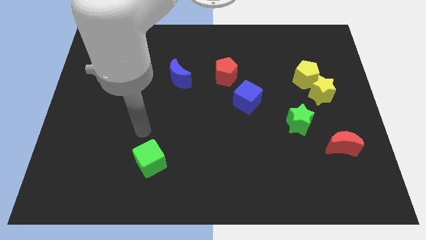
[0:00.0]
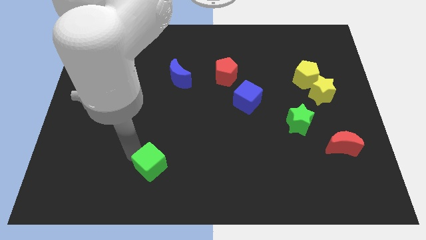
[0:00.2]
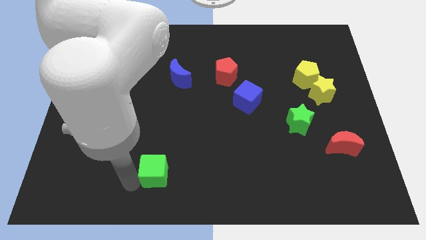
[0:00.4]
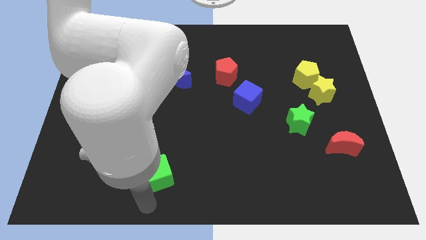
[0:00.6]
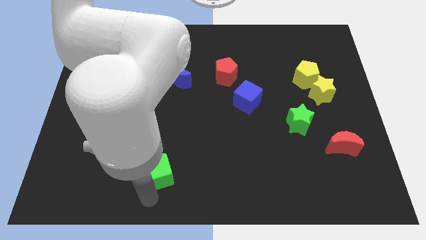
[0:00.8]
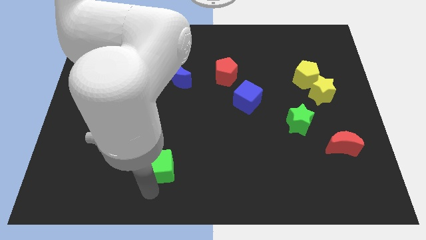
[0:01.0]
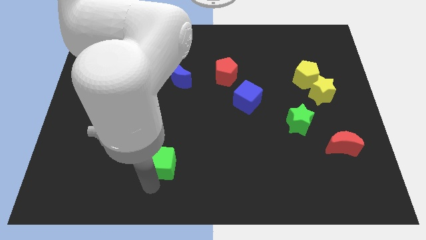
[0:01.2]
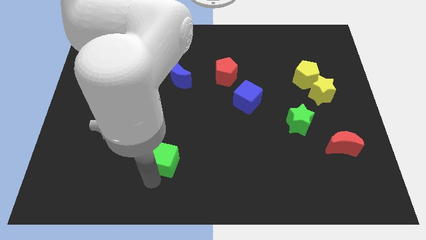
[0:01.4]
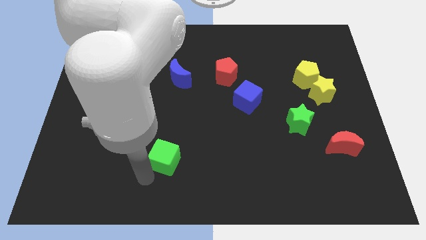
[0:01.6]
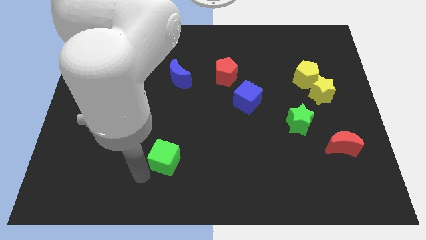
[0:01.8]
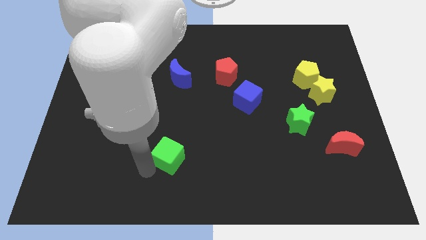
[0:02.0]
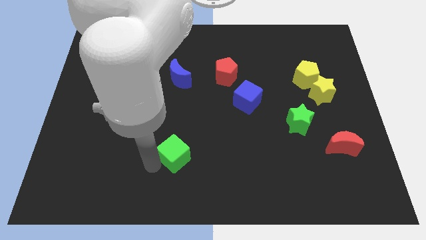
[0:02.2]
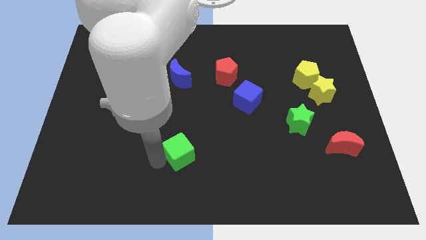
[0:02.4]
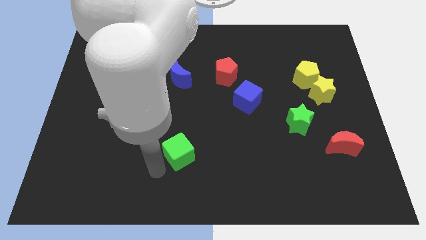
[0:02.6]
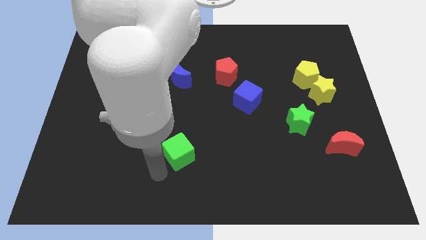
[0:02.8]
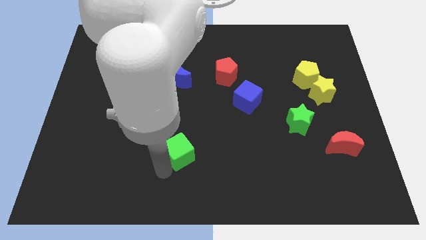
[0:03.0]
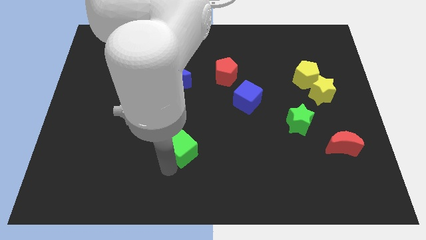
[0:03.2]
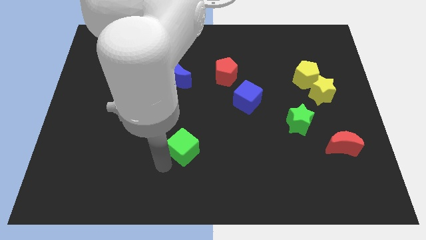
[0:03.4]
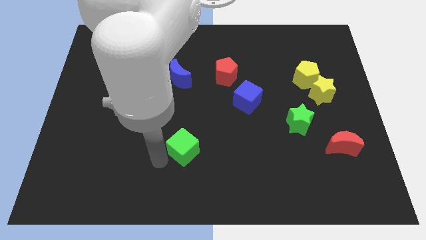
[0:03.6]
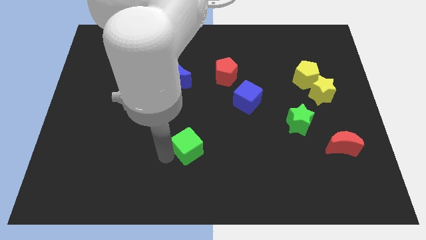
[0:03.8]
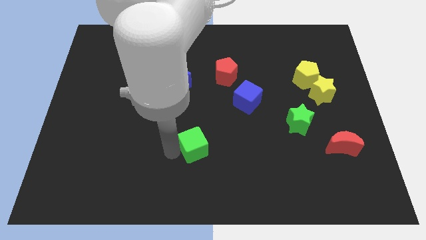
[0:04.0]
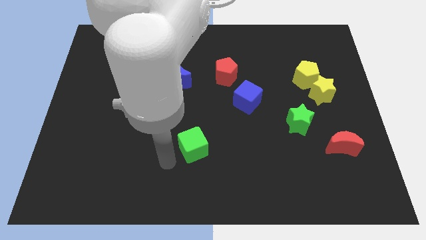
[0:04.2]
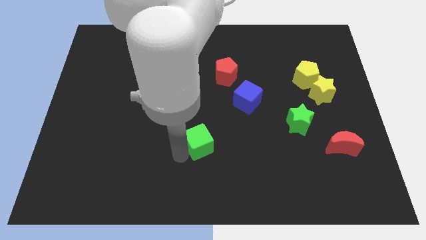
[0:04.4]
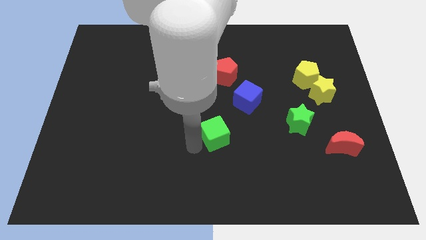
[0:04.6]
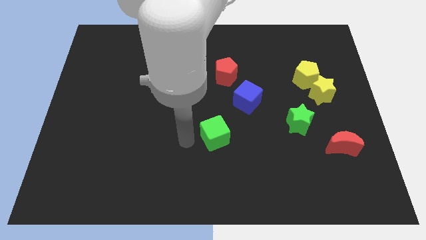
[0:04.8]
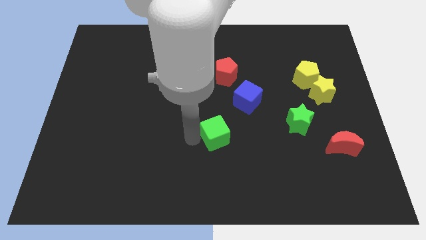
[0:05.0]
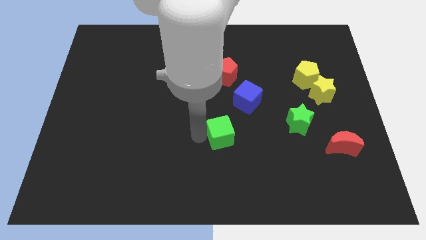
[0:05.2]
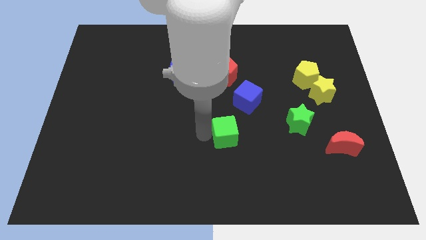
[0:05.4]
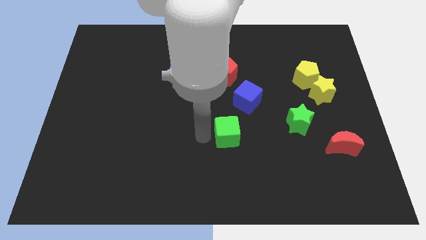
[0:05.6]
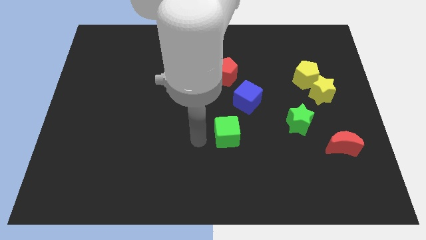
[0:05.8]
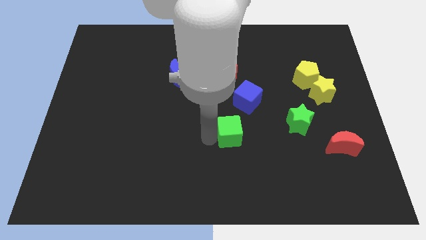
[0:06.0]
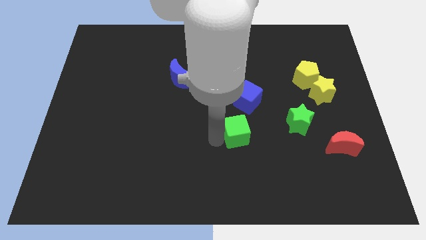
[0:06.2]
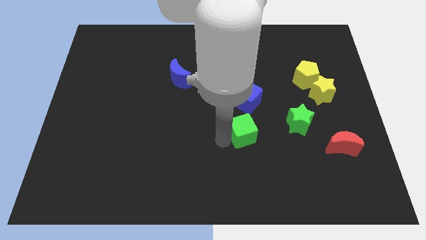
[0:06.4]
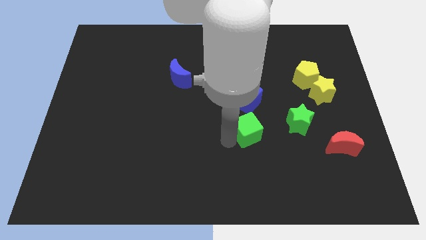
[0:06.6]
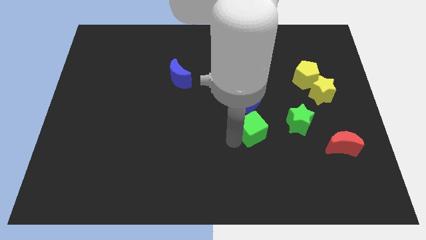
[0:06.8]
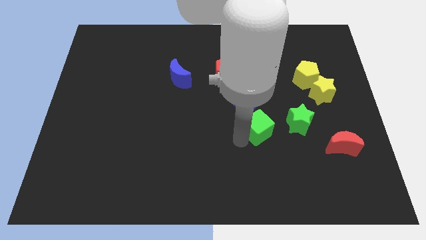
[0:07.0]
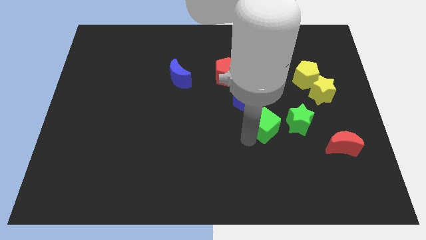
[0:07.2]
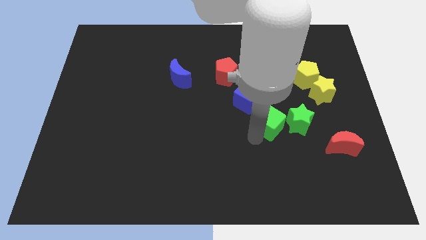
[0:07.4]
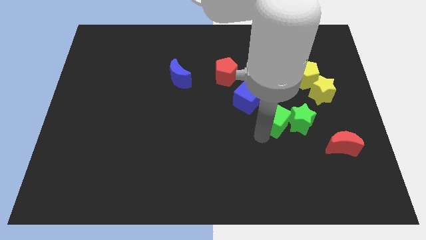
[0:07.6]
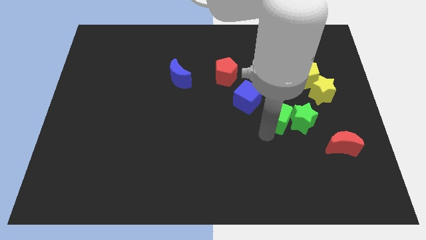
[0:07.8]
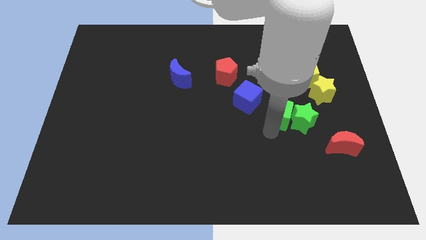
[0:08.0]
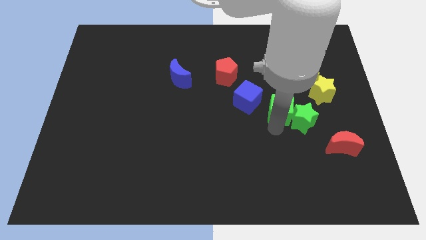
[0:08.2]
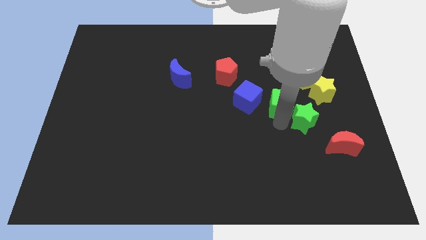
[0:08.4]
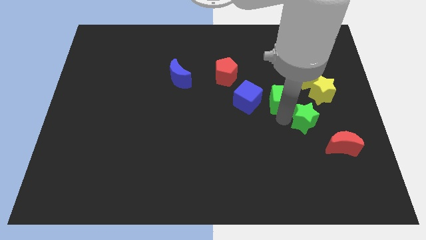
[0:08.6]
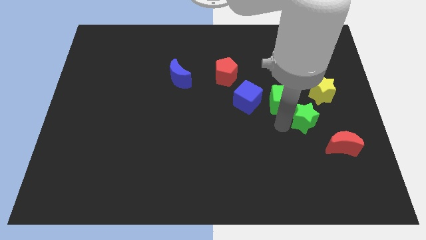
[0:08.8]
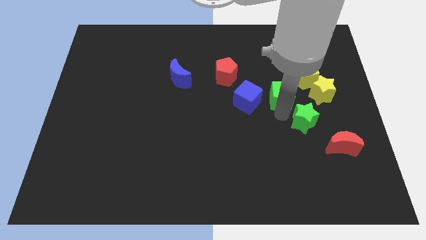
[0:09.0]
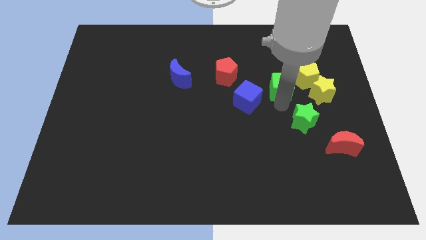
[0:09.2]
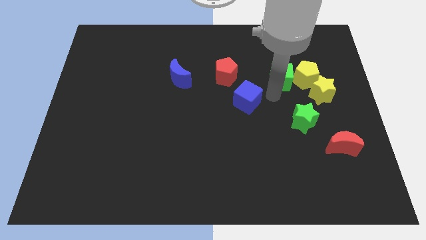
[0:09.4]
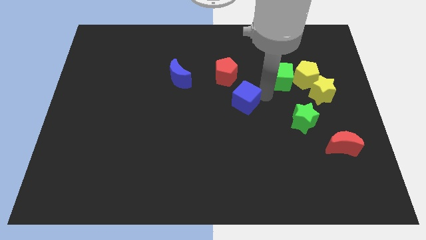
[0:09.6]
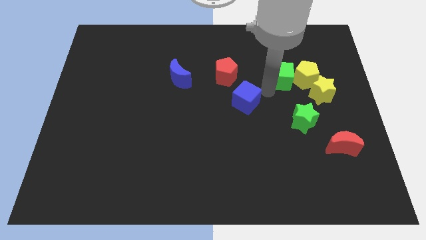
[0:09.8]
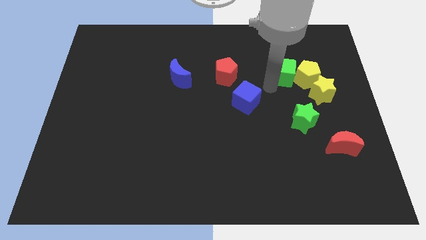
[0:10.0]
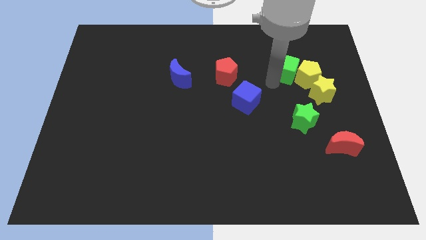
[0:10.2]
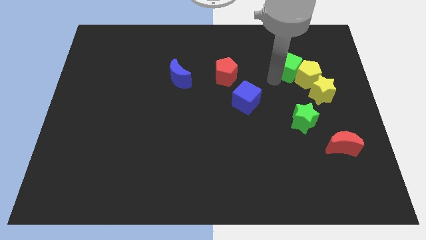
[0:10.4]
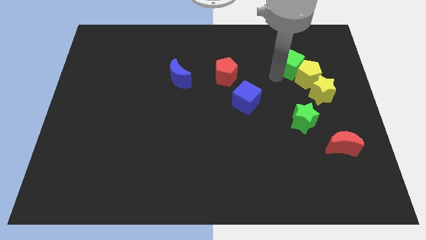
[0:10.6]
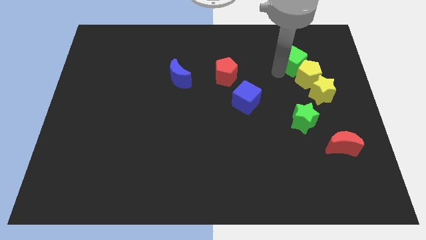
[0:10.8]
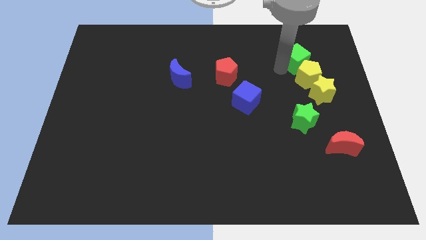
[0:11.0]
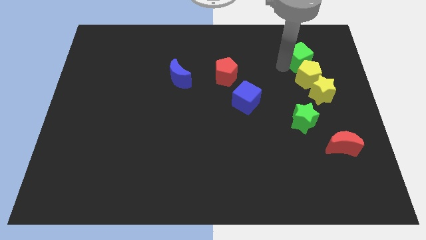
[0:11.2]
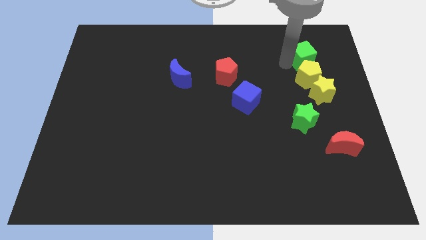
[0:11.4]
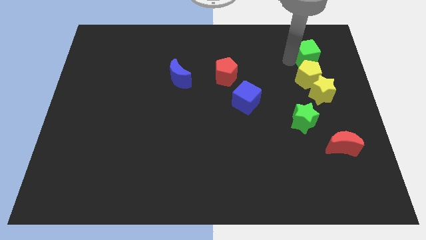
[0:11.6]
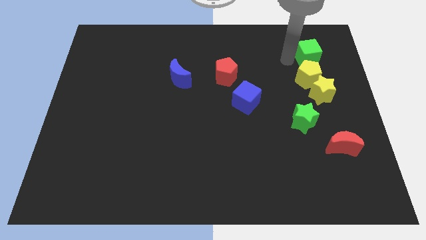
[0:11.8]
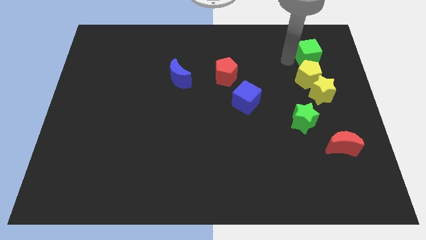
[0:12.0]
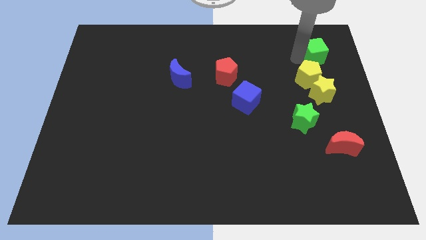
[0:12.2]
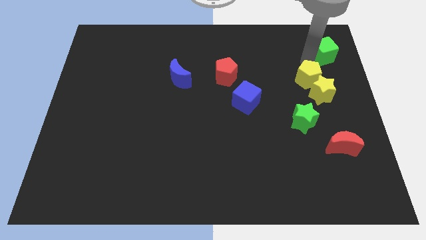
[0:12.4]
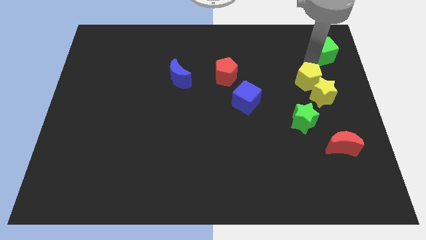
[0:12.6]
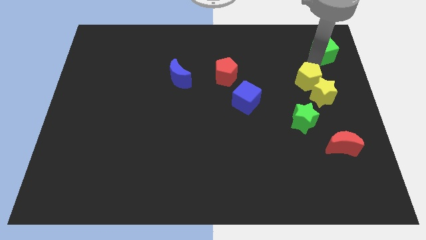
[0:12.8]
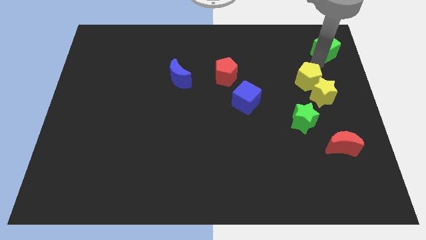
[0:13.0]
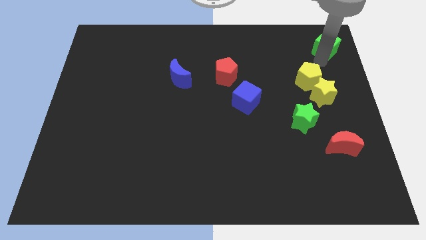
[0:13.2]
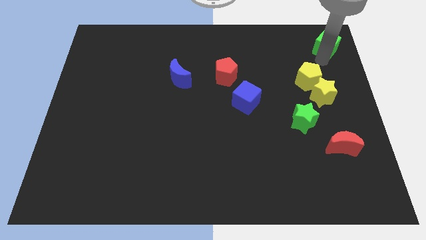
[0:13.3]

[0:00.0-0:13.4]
push the green cube to the top right corner
